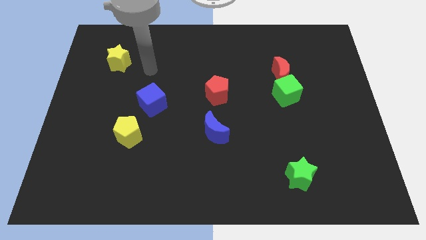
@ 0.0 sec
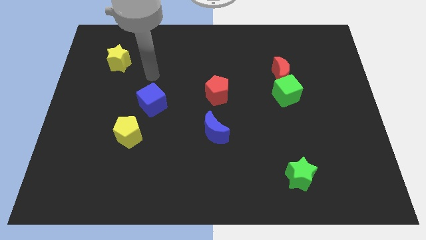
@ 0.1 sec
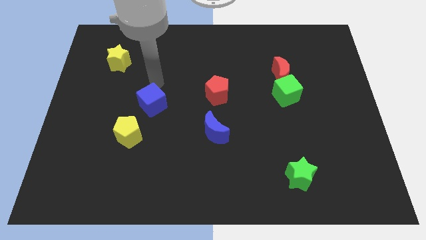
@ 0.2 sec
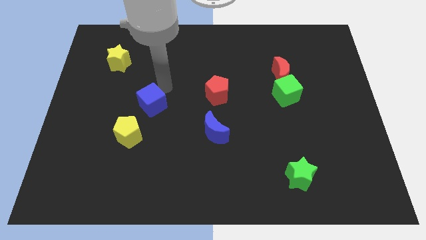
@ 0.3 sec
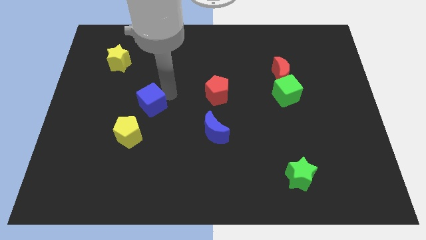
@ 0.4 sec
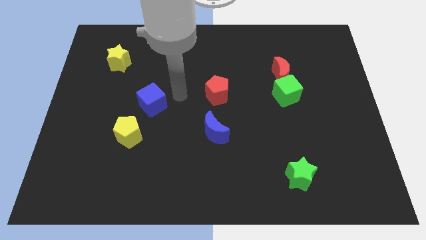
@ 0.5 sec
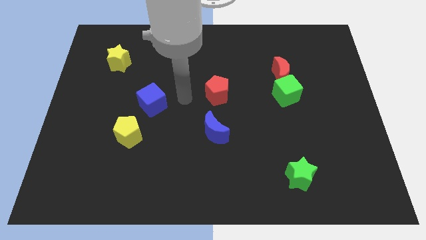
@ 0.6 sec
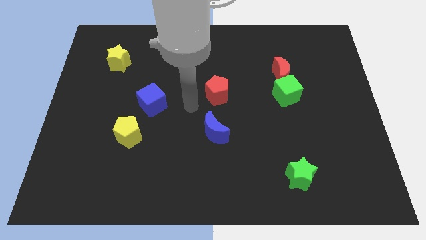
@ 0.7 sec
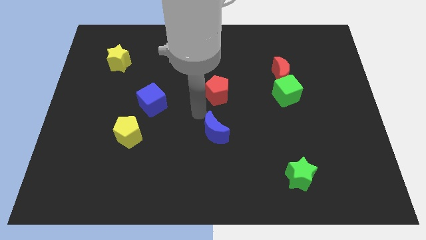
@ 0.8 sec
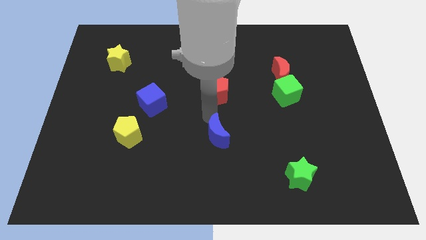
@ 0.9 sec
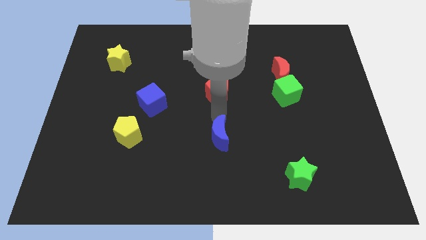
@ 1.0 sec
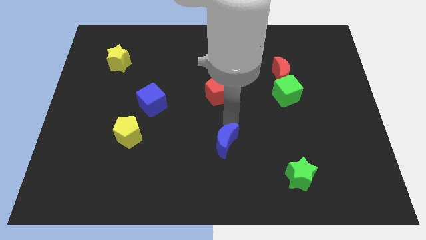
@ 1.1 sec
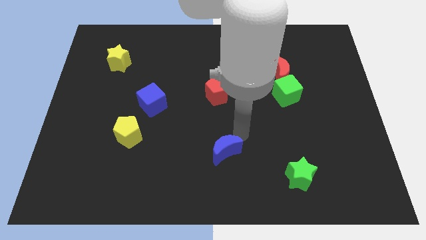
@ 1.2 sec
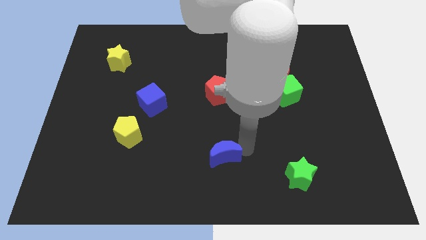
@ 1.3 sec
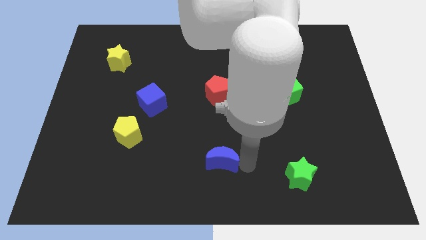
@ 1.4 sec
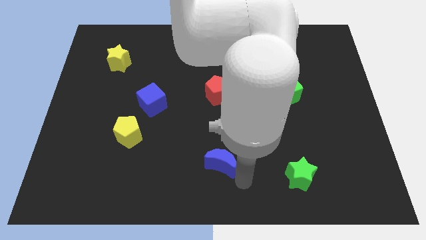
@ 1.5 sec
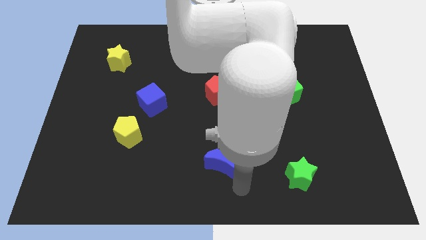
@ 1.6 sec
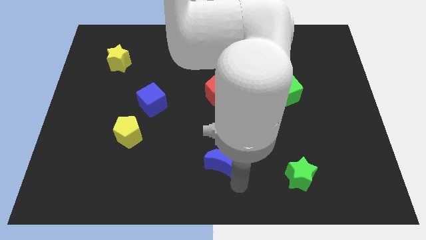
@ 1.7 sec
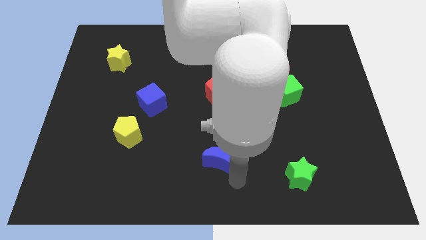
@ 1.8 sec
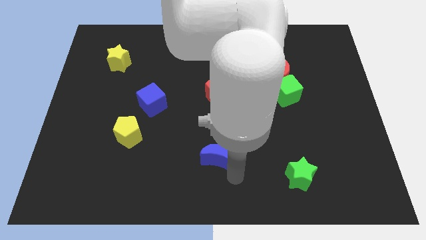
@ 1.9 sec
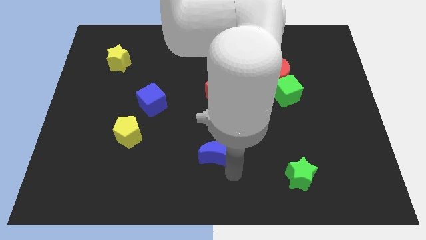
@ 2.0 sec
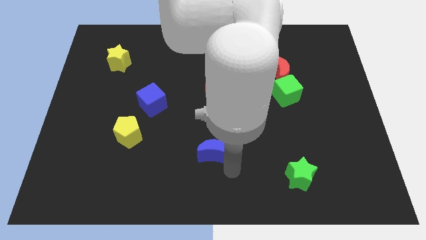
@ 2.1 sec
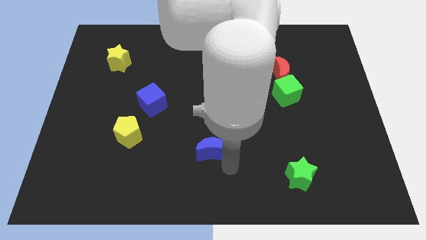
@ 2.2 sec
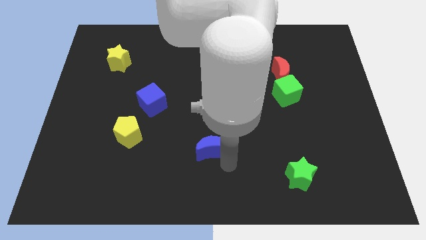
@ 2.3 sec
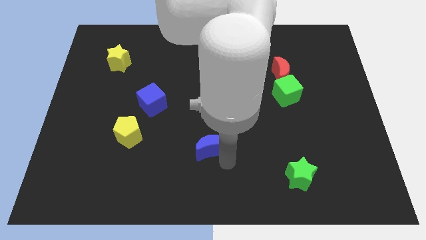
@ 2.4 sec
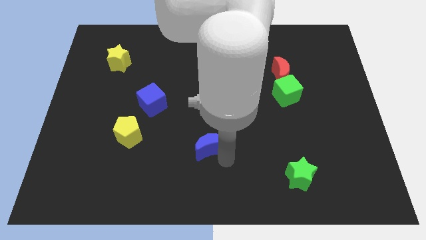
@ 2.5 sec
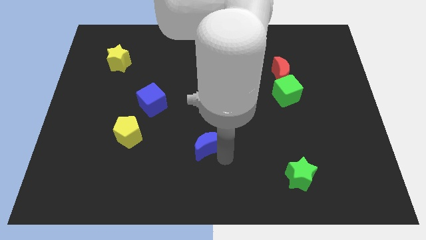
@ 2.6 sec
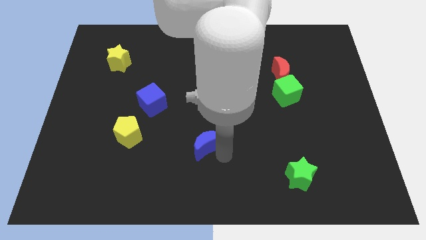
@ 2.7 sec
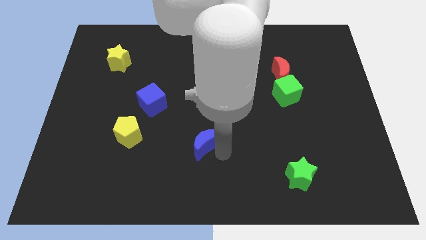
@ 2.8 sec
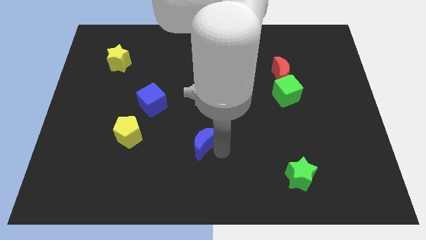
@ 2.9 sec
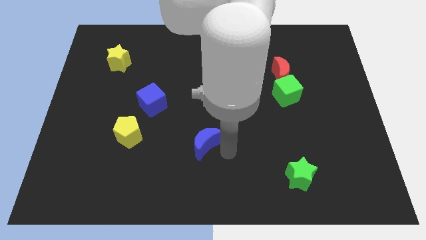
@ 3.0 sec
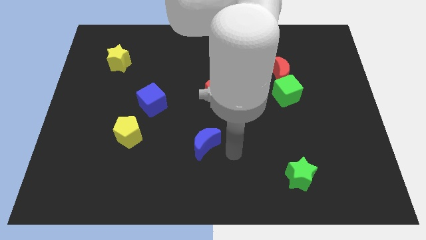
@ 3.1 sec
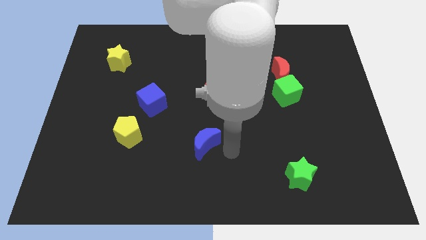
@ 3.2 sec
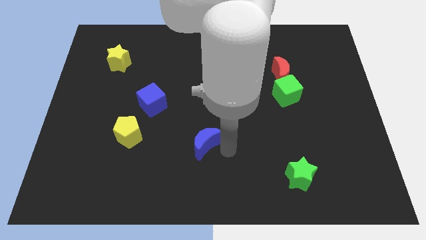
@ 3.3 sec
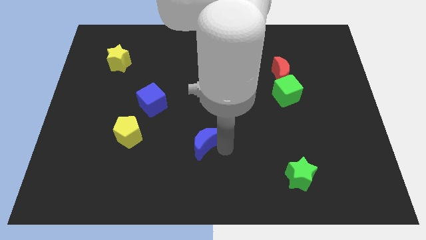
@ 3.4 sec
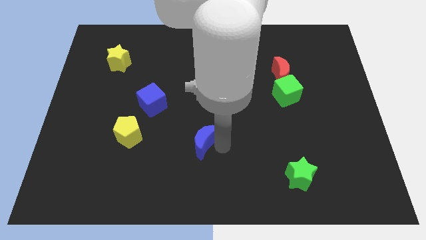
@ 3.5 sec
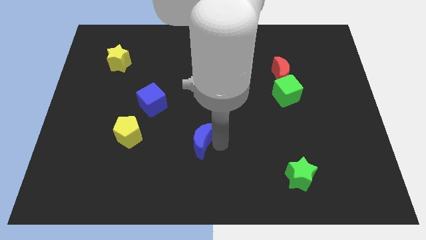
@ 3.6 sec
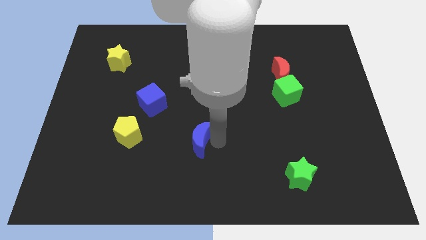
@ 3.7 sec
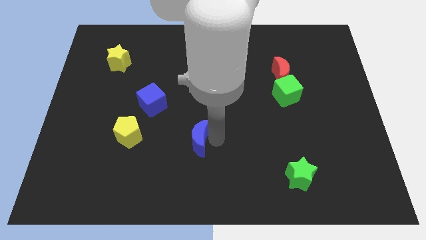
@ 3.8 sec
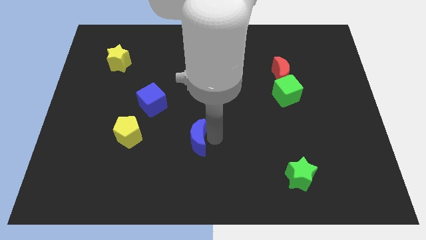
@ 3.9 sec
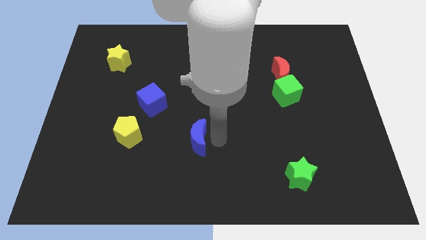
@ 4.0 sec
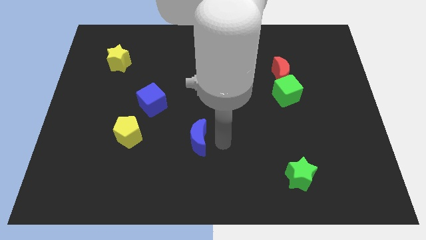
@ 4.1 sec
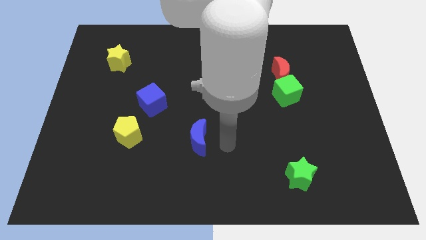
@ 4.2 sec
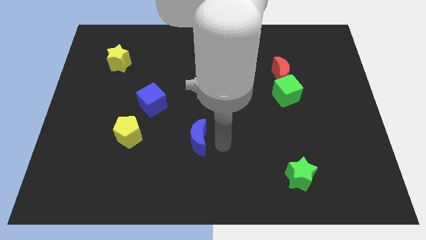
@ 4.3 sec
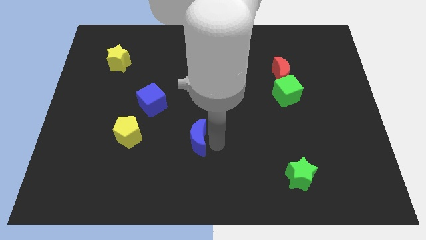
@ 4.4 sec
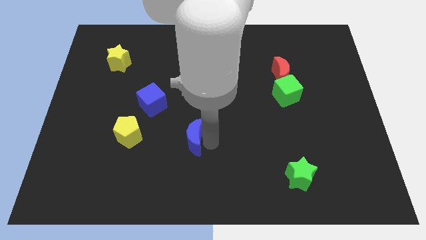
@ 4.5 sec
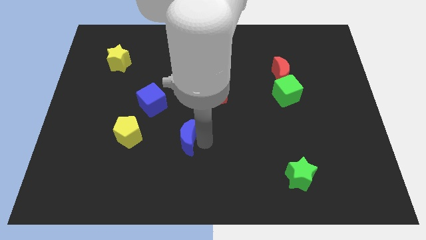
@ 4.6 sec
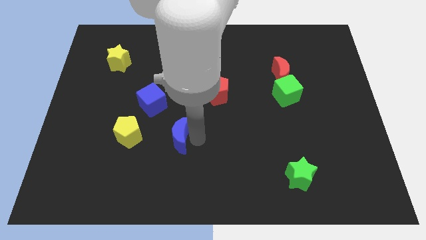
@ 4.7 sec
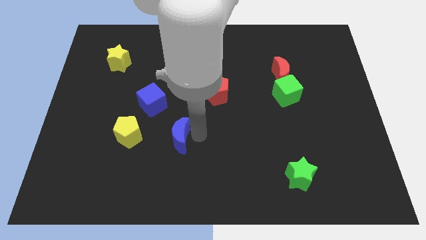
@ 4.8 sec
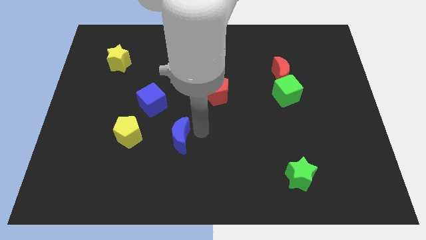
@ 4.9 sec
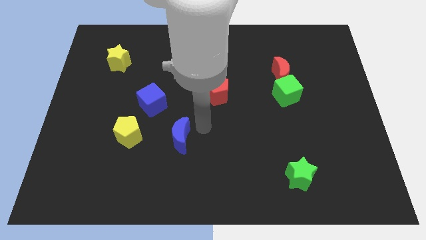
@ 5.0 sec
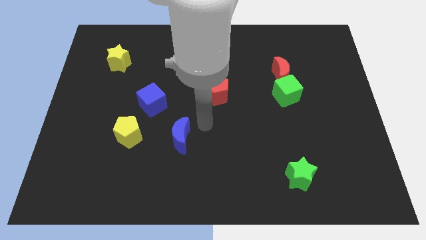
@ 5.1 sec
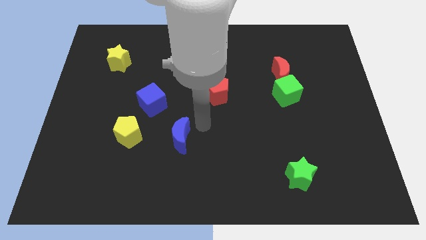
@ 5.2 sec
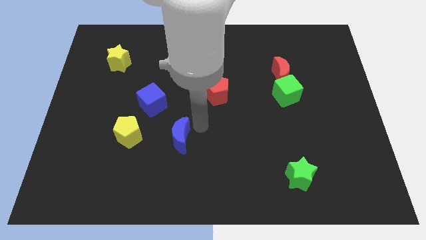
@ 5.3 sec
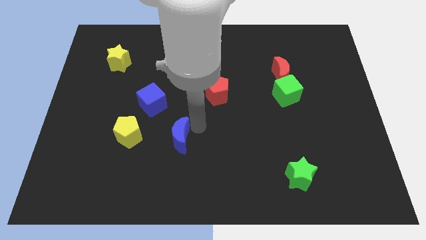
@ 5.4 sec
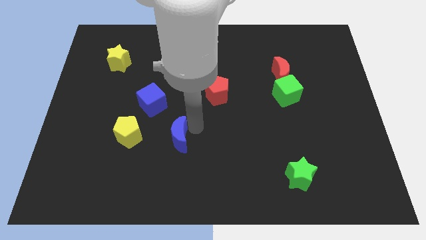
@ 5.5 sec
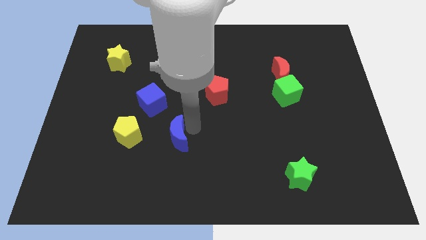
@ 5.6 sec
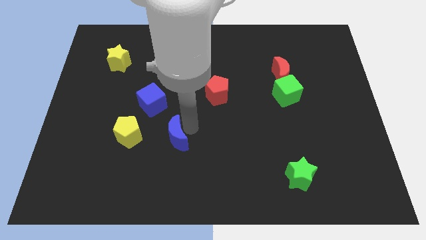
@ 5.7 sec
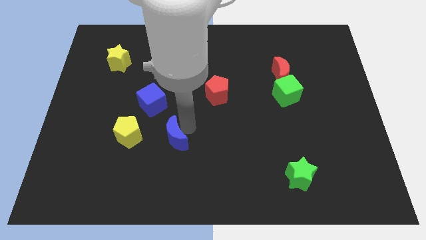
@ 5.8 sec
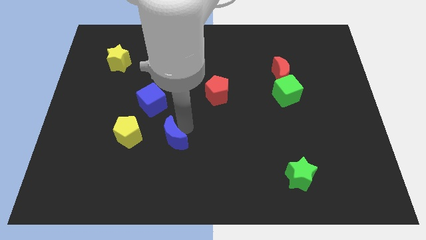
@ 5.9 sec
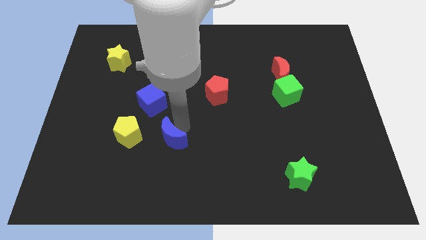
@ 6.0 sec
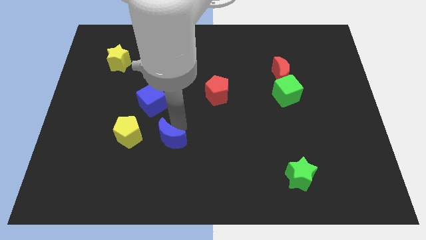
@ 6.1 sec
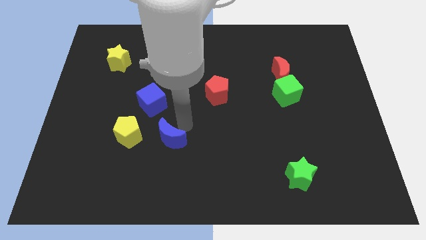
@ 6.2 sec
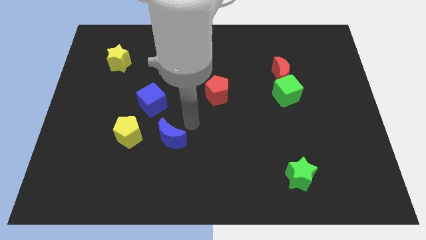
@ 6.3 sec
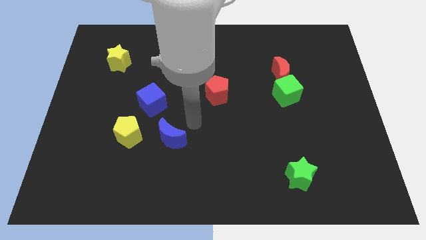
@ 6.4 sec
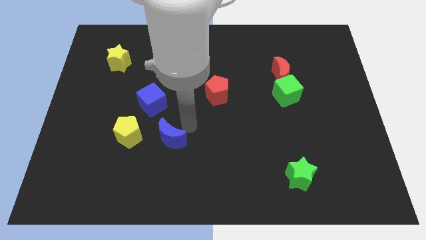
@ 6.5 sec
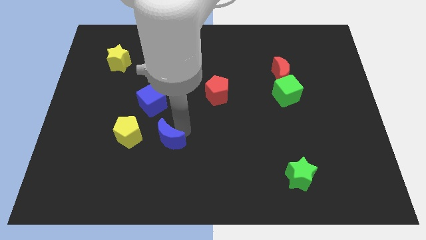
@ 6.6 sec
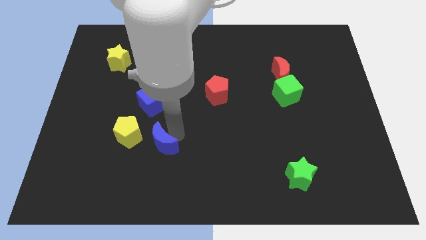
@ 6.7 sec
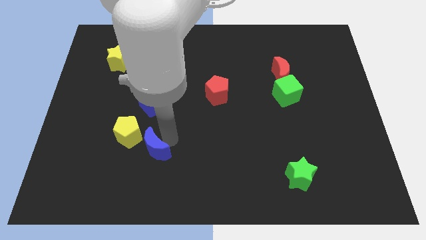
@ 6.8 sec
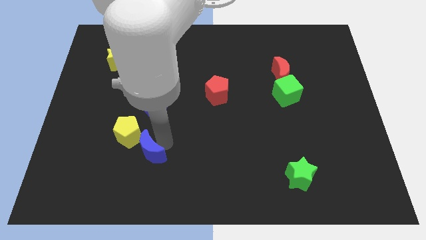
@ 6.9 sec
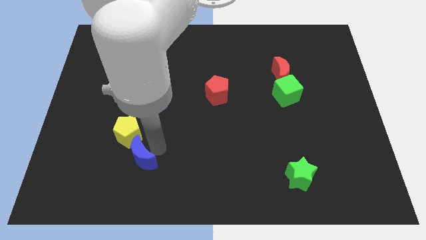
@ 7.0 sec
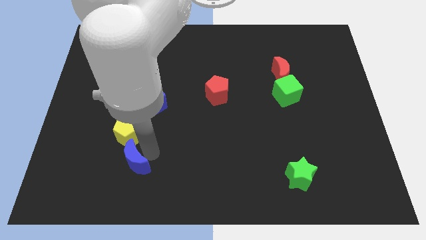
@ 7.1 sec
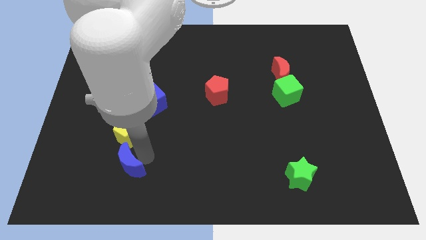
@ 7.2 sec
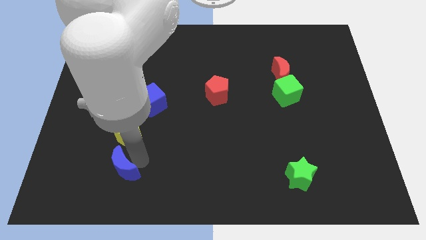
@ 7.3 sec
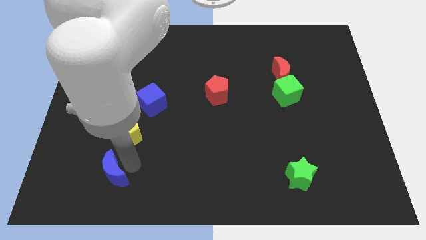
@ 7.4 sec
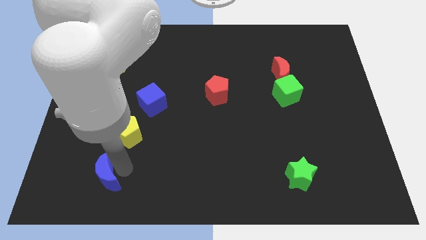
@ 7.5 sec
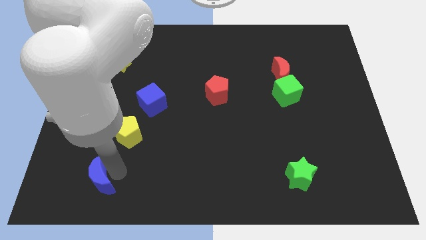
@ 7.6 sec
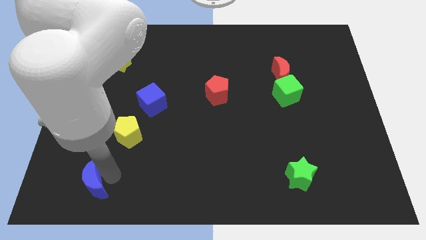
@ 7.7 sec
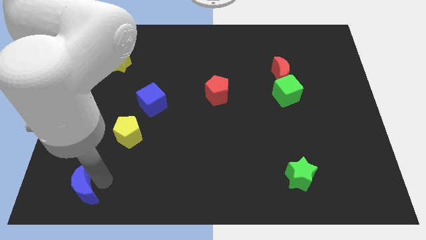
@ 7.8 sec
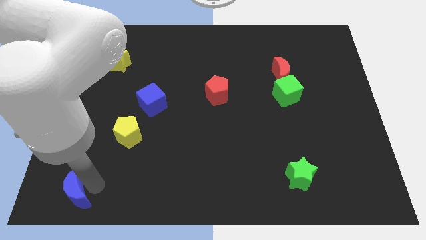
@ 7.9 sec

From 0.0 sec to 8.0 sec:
push the blue moon to the bottom left of the board
